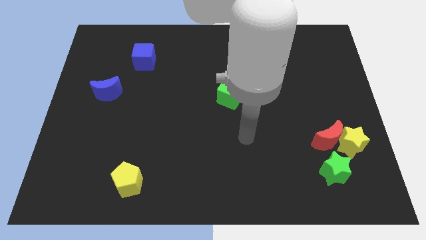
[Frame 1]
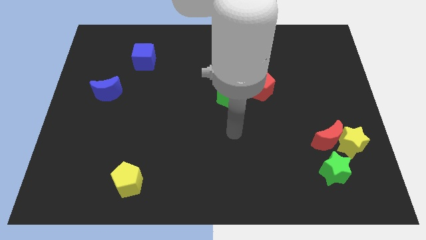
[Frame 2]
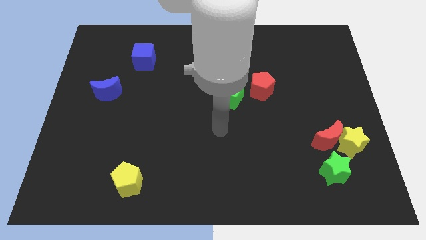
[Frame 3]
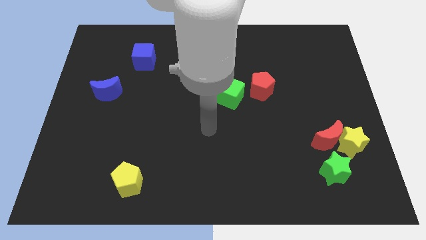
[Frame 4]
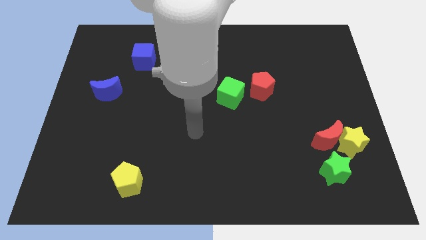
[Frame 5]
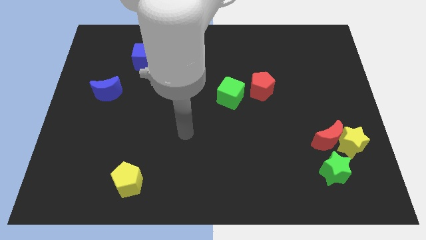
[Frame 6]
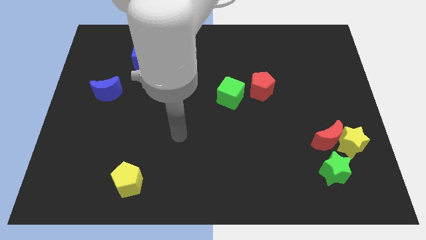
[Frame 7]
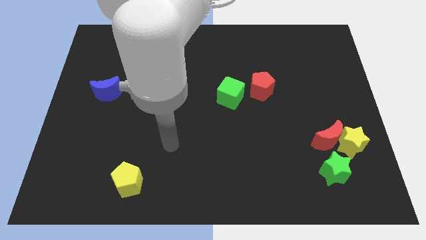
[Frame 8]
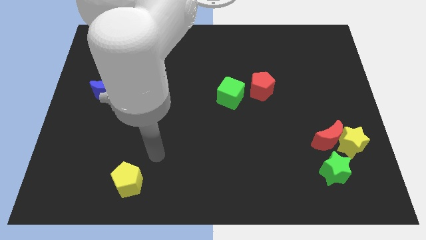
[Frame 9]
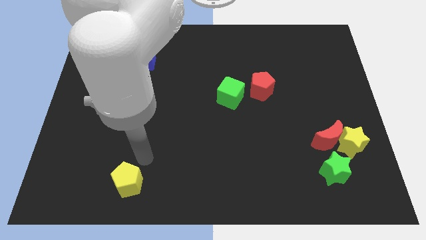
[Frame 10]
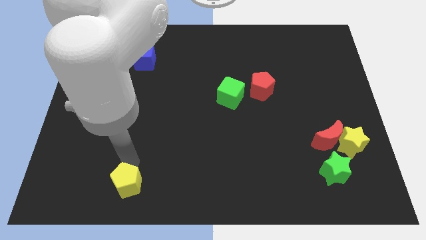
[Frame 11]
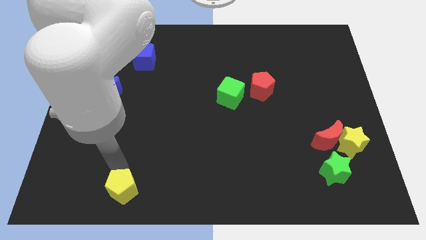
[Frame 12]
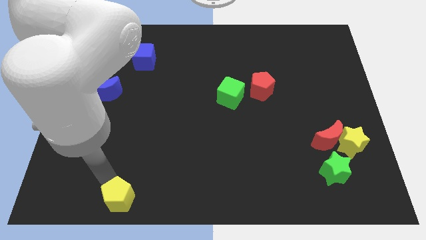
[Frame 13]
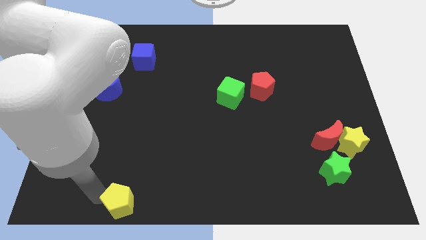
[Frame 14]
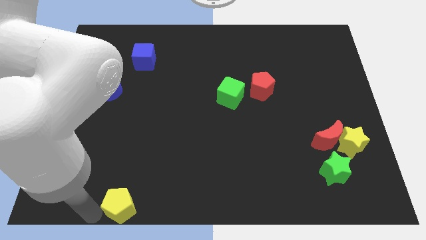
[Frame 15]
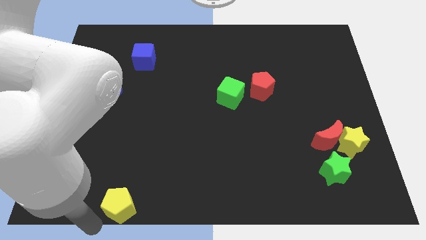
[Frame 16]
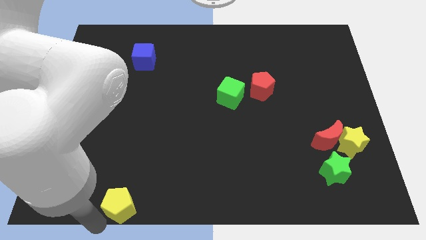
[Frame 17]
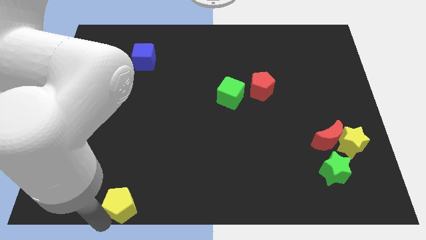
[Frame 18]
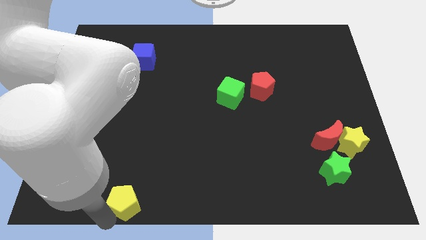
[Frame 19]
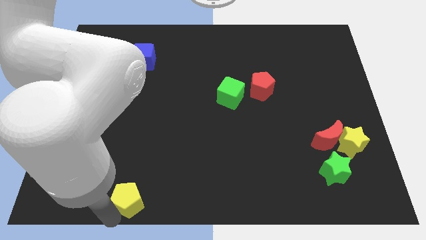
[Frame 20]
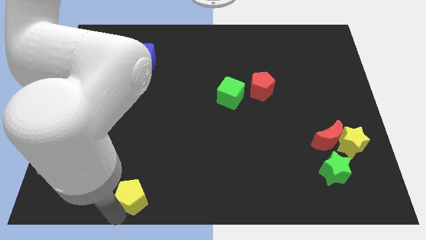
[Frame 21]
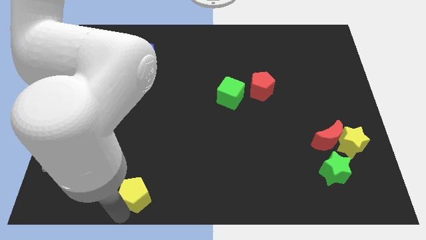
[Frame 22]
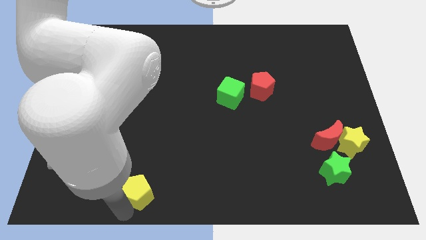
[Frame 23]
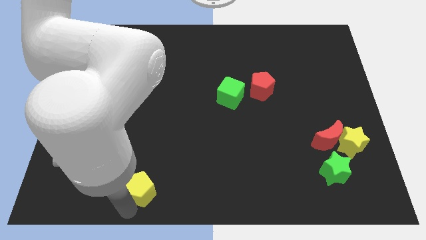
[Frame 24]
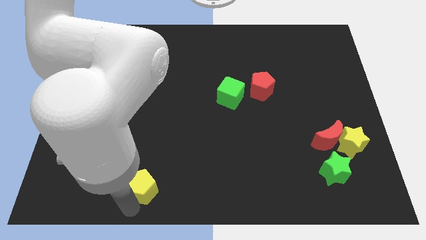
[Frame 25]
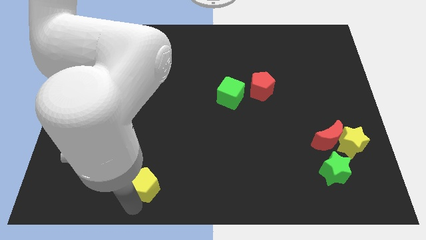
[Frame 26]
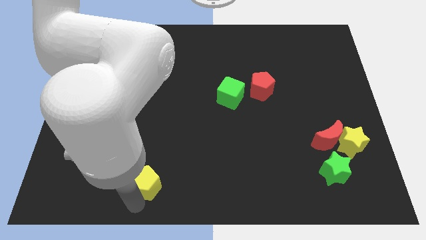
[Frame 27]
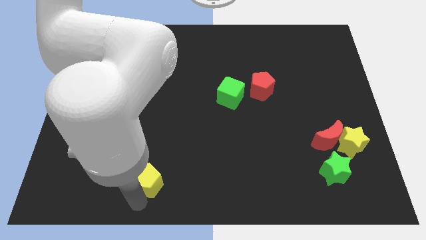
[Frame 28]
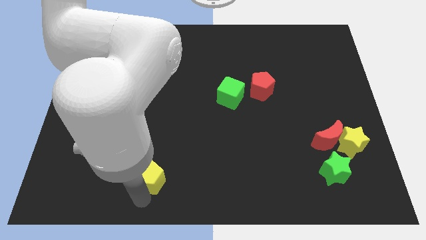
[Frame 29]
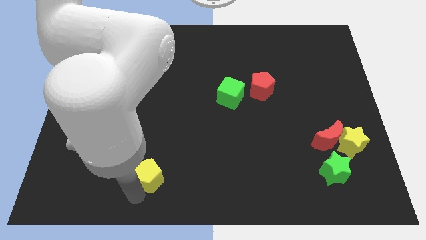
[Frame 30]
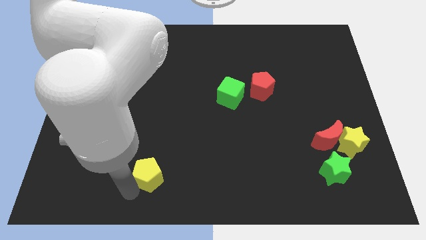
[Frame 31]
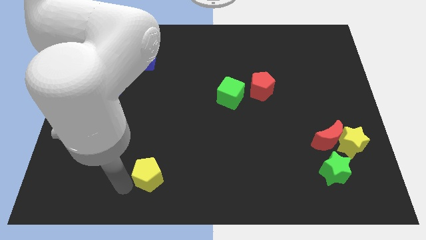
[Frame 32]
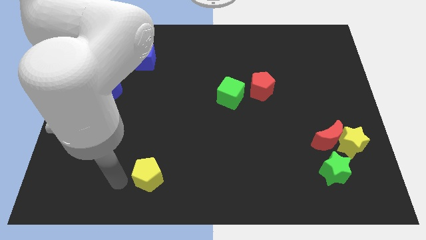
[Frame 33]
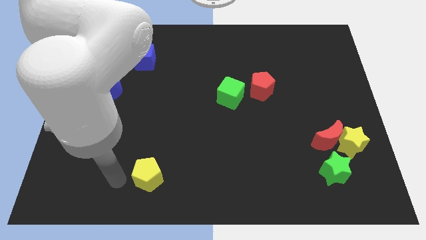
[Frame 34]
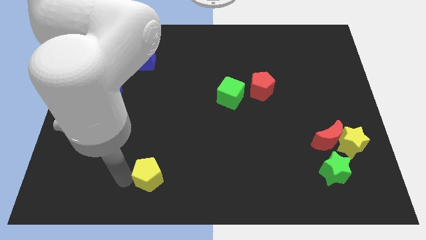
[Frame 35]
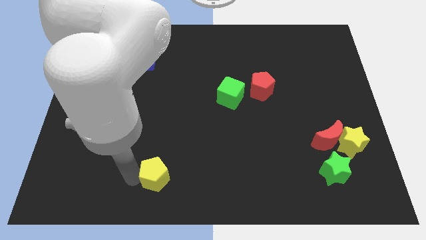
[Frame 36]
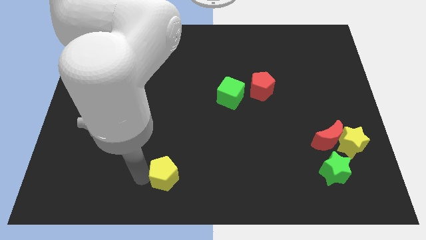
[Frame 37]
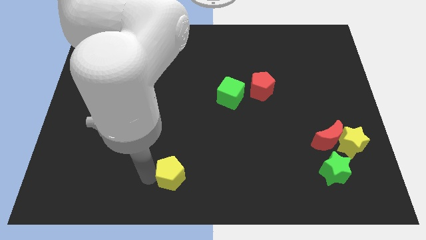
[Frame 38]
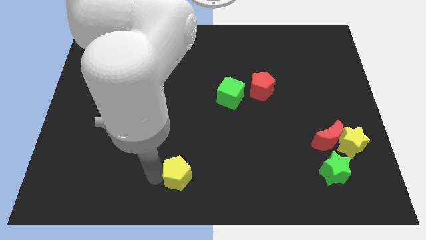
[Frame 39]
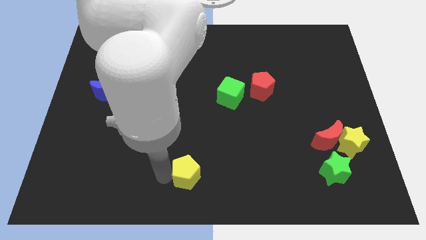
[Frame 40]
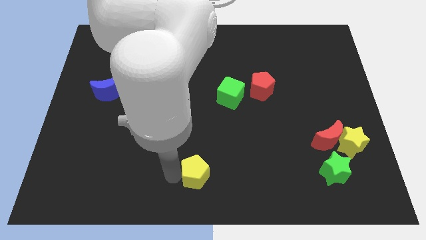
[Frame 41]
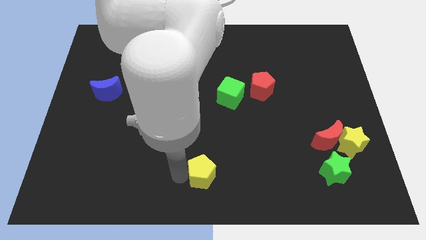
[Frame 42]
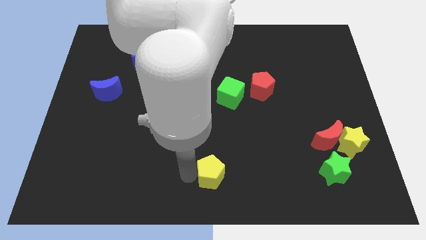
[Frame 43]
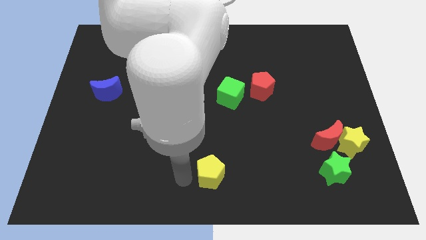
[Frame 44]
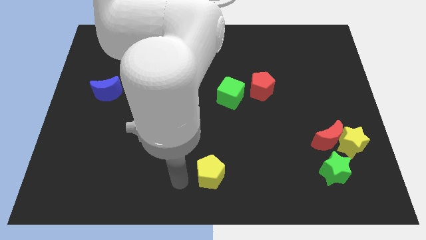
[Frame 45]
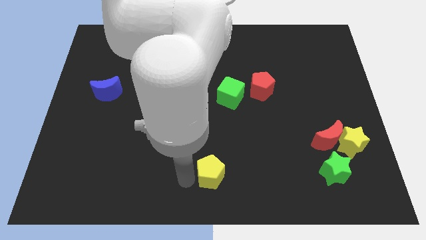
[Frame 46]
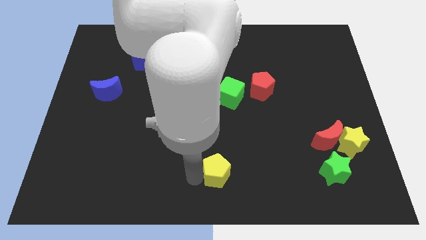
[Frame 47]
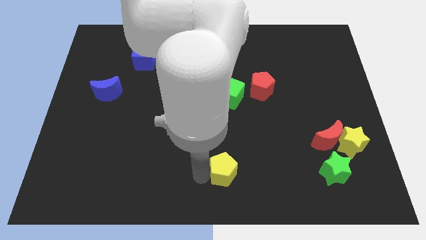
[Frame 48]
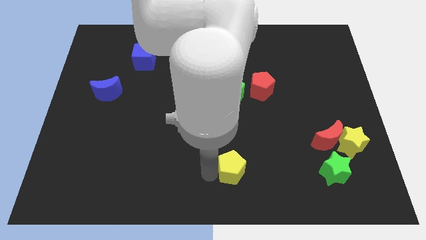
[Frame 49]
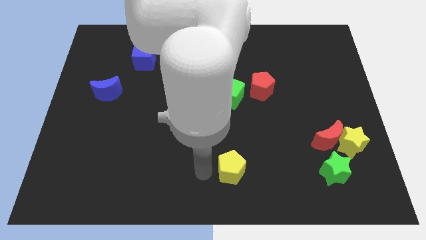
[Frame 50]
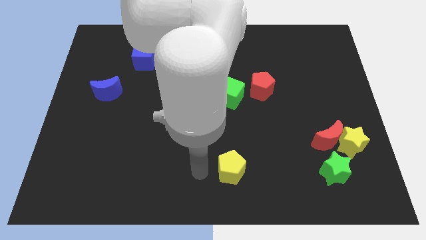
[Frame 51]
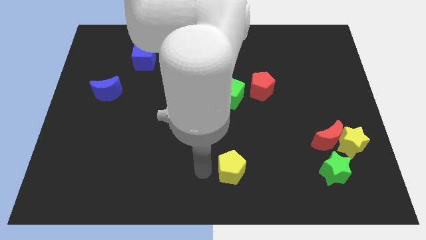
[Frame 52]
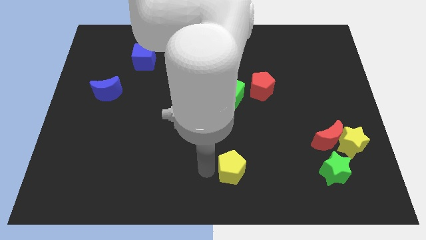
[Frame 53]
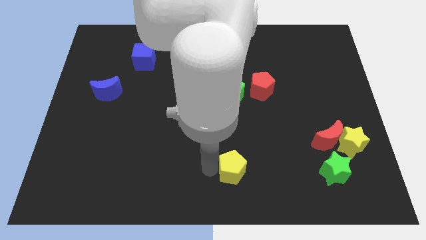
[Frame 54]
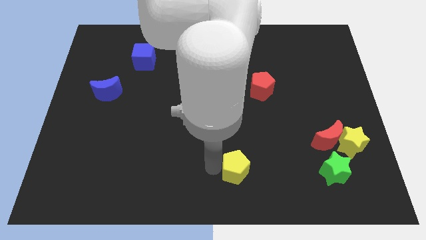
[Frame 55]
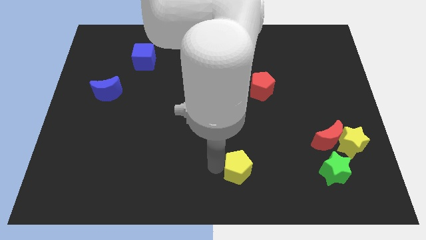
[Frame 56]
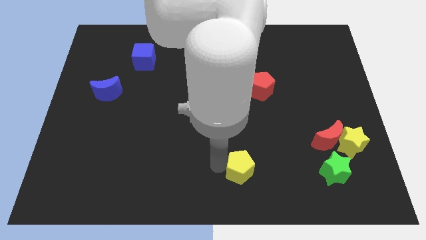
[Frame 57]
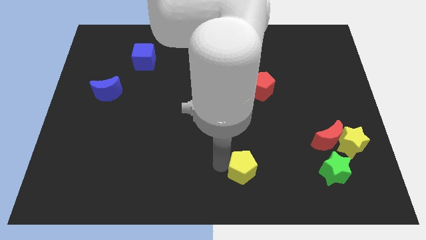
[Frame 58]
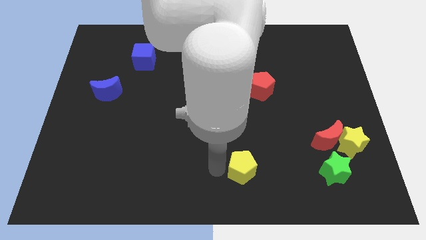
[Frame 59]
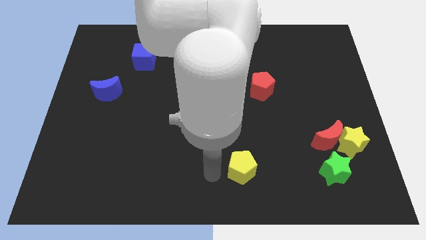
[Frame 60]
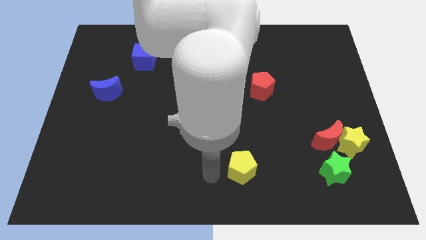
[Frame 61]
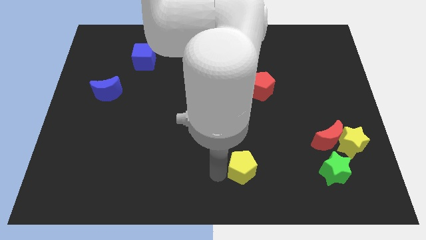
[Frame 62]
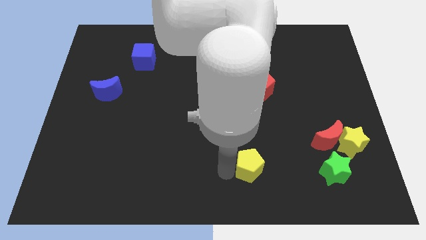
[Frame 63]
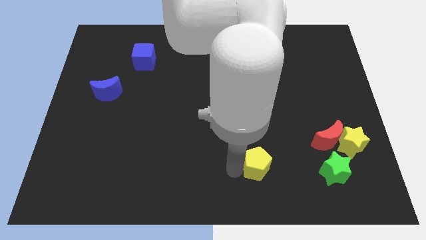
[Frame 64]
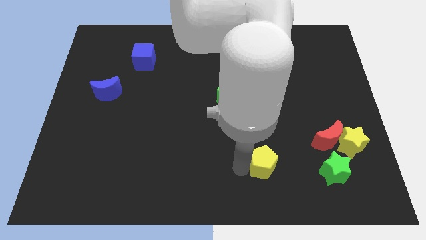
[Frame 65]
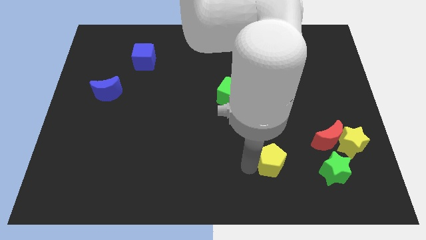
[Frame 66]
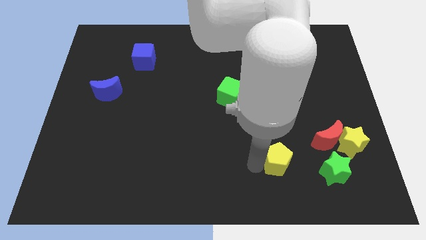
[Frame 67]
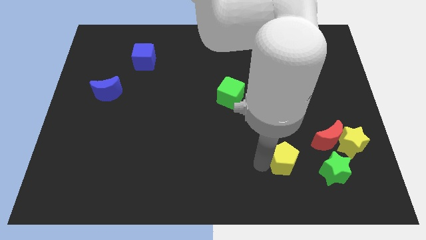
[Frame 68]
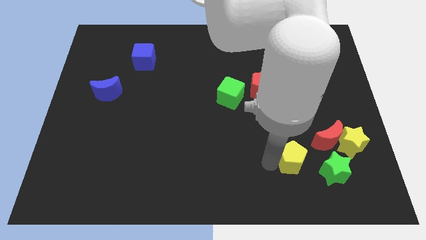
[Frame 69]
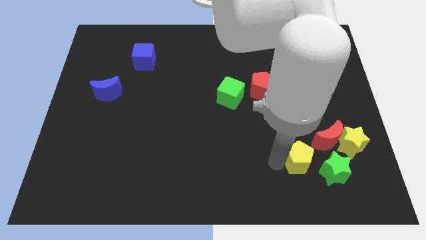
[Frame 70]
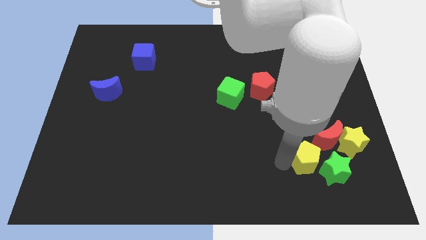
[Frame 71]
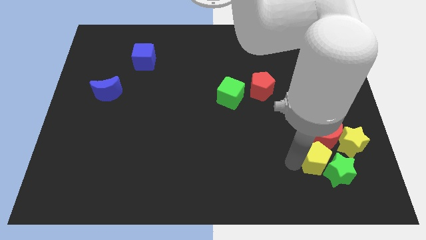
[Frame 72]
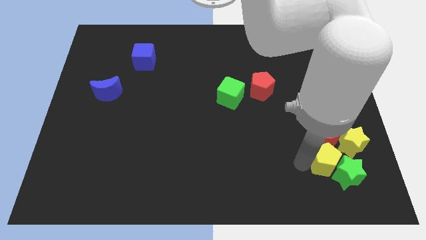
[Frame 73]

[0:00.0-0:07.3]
put the yellow pentagon towards the red moon

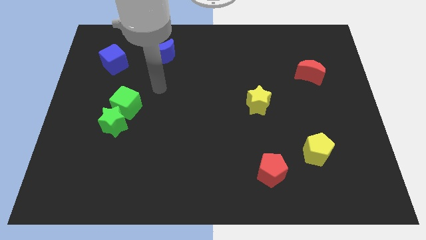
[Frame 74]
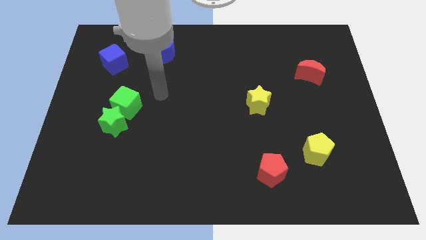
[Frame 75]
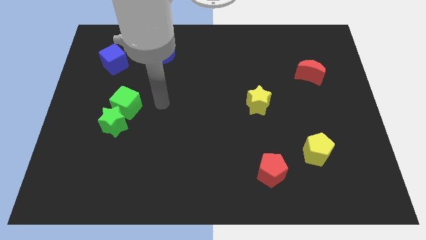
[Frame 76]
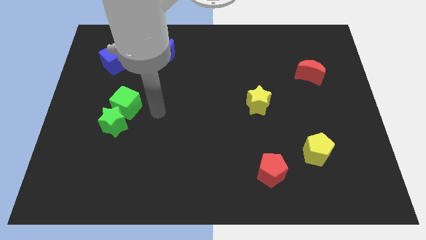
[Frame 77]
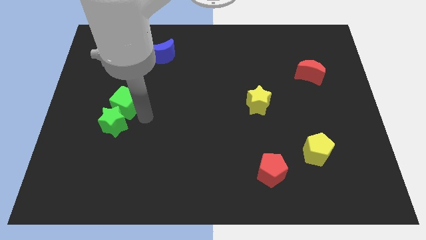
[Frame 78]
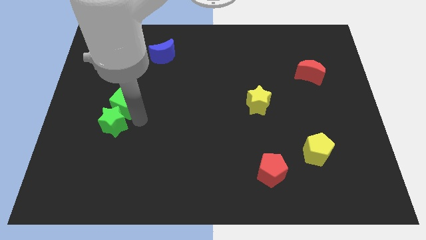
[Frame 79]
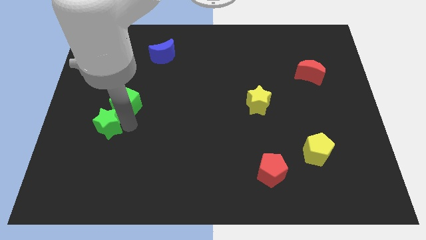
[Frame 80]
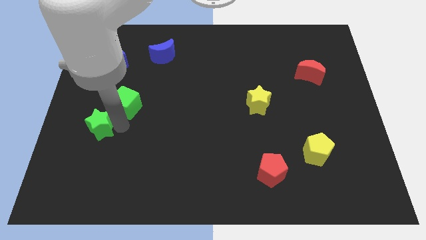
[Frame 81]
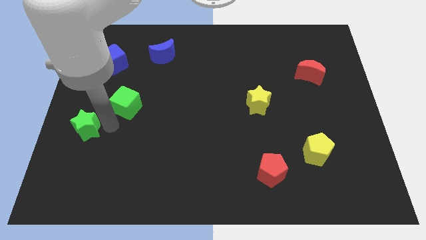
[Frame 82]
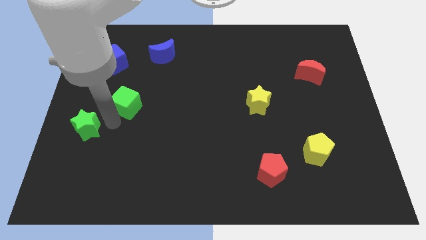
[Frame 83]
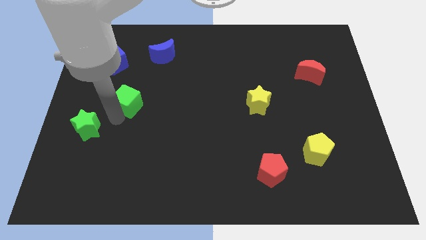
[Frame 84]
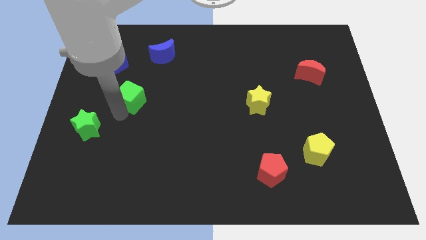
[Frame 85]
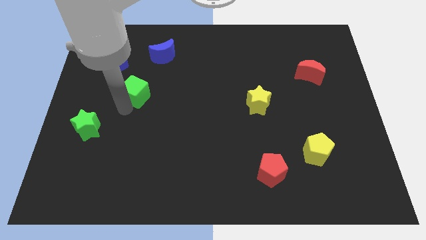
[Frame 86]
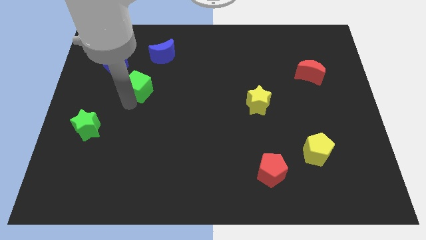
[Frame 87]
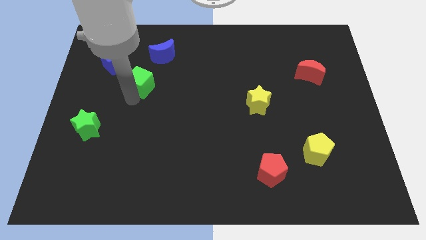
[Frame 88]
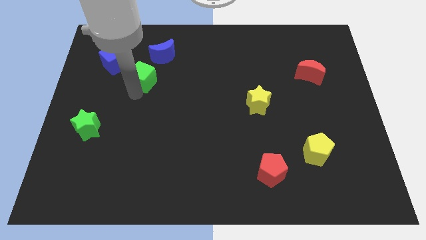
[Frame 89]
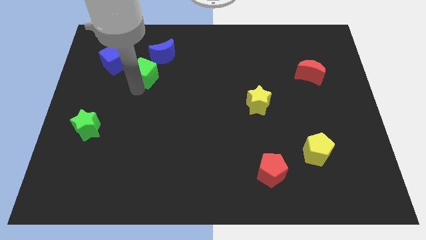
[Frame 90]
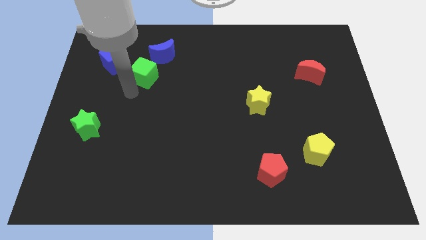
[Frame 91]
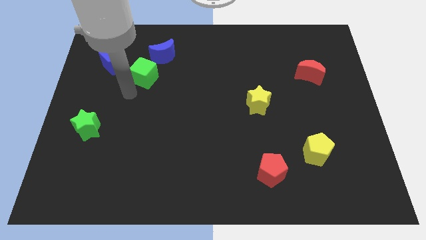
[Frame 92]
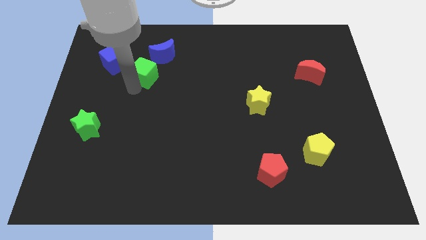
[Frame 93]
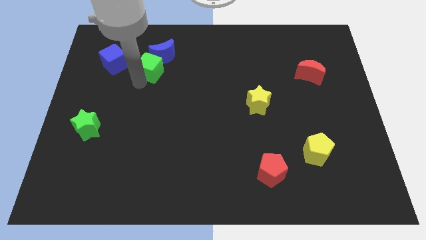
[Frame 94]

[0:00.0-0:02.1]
put the green cube to the blue moon
